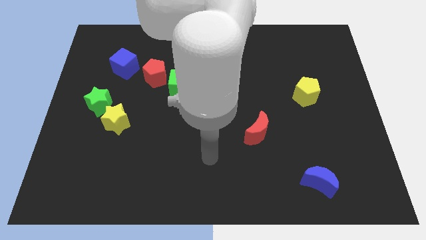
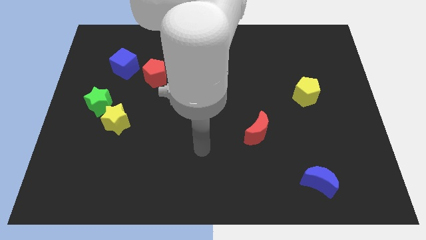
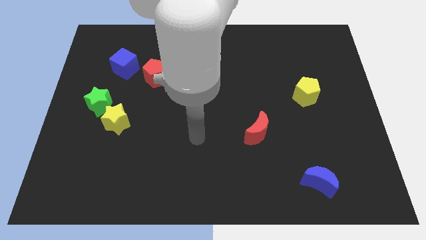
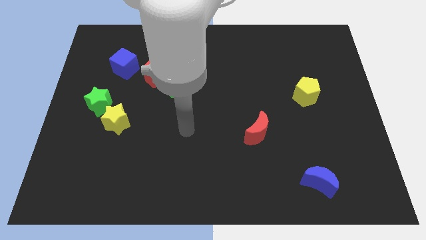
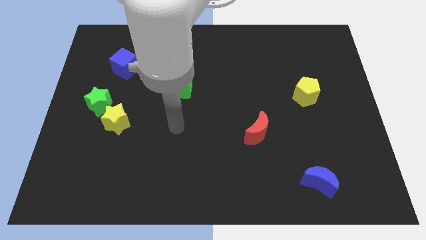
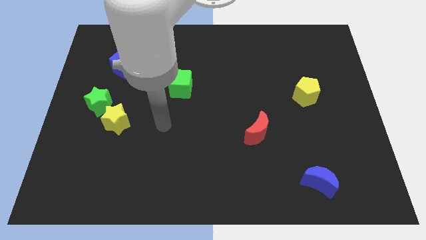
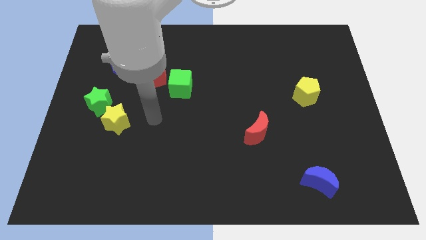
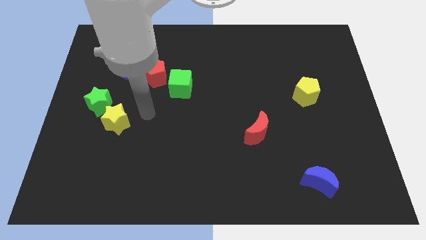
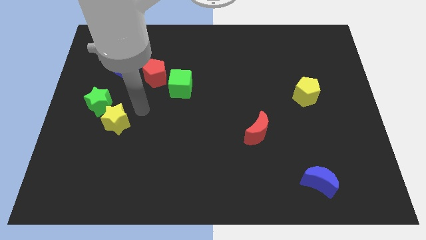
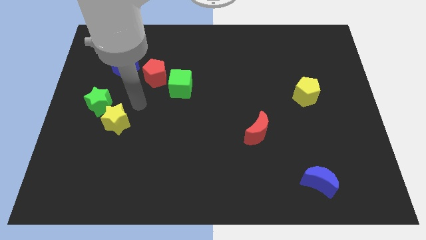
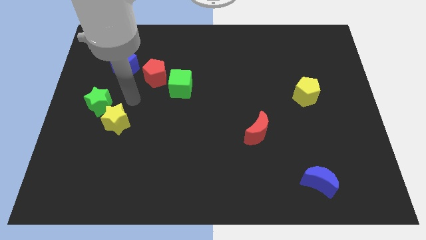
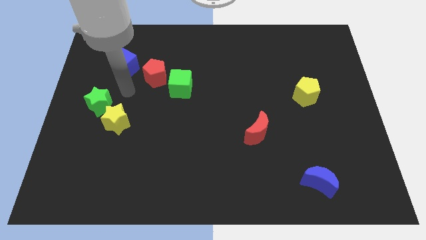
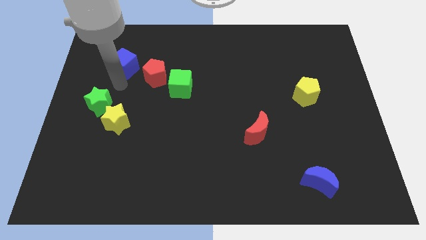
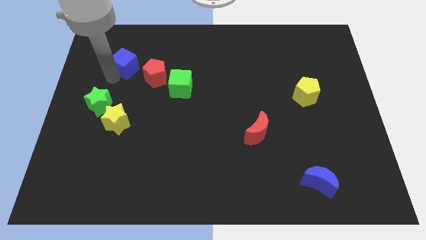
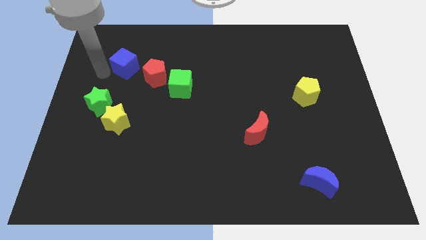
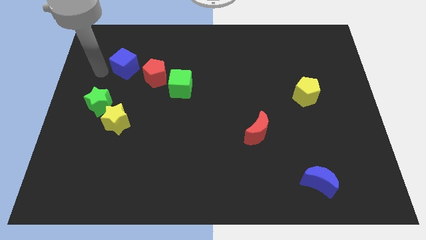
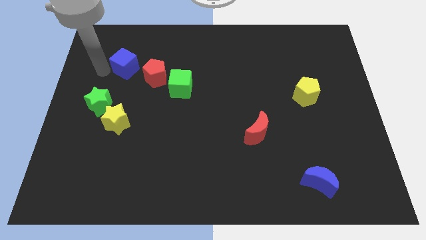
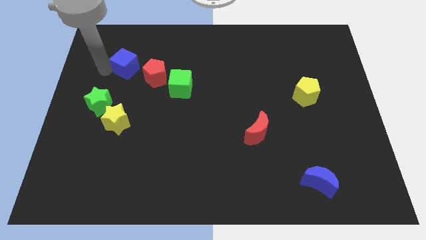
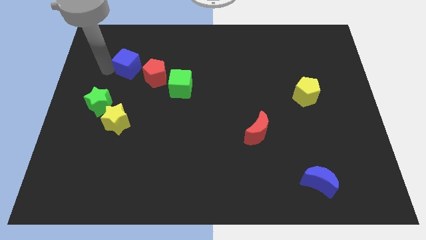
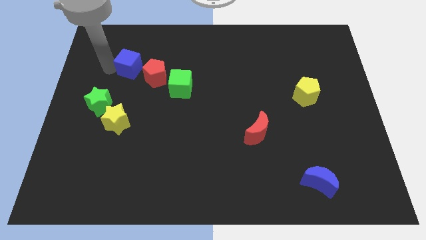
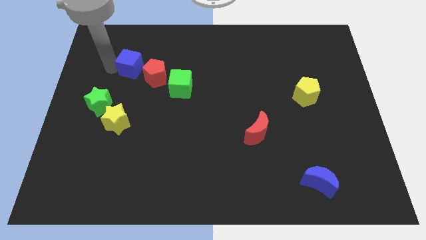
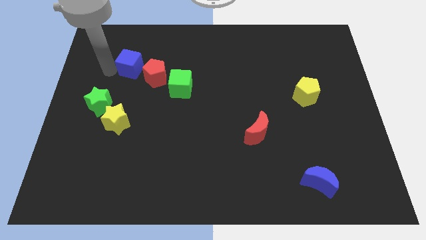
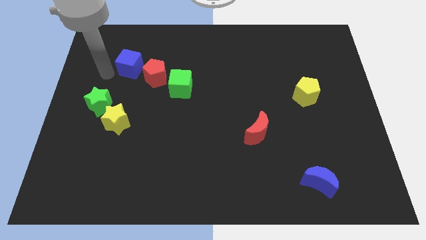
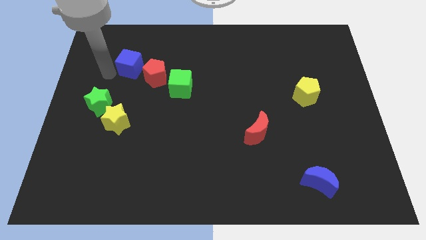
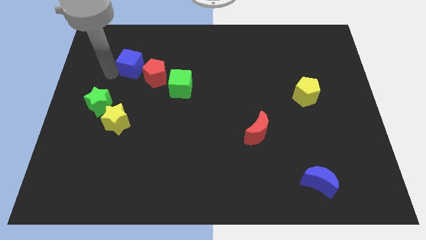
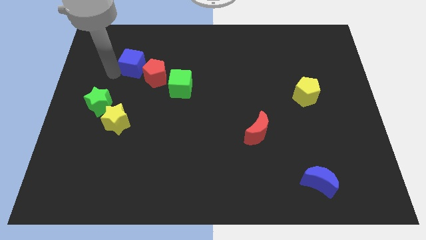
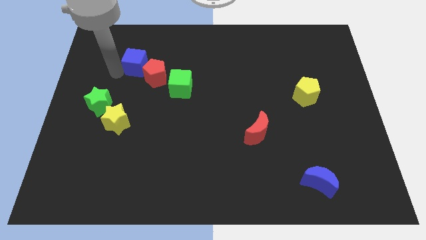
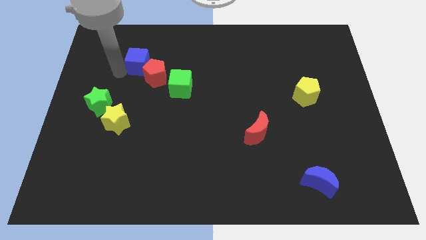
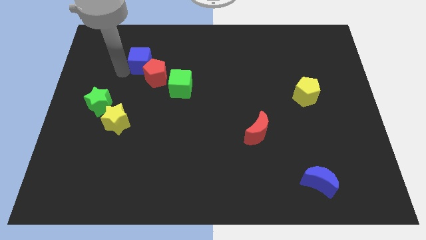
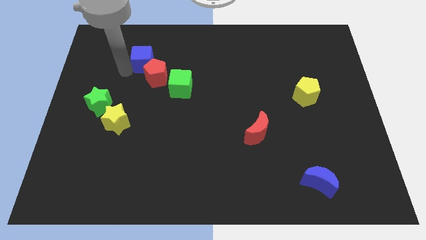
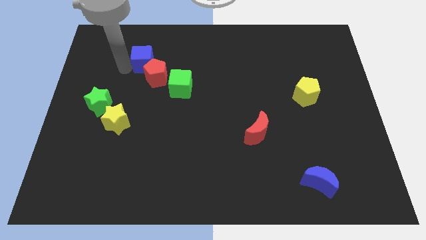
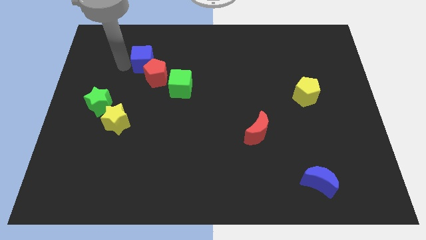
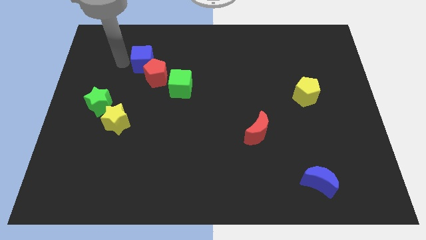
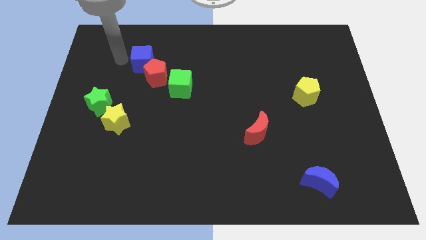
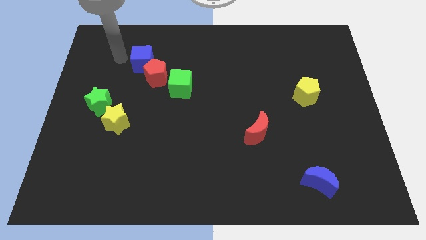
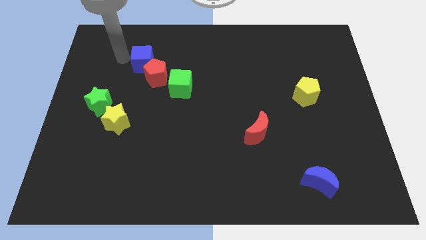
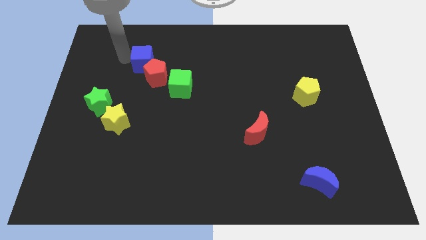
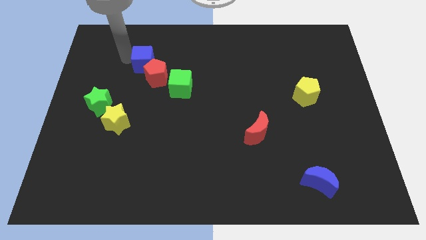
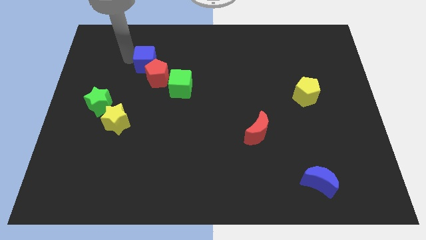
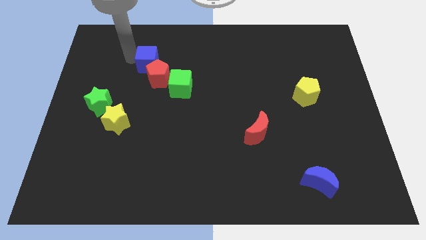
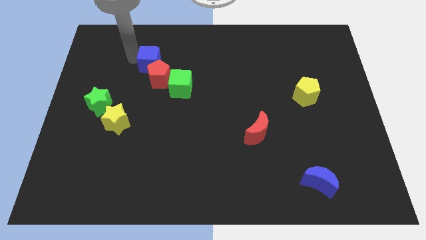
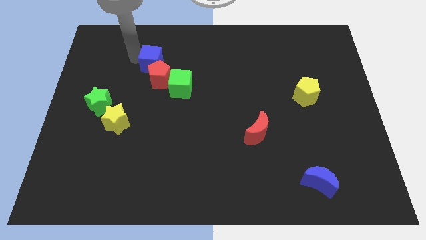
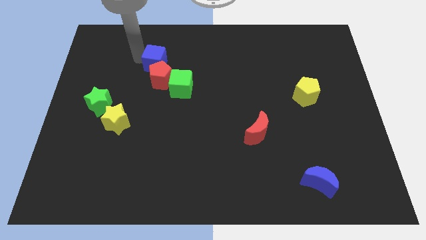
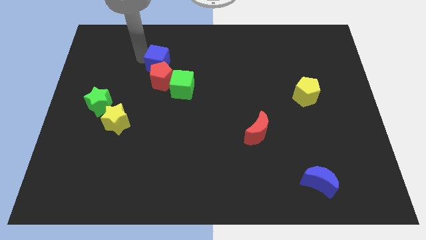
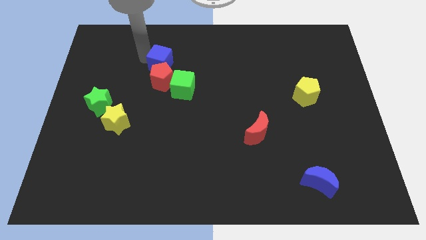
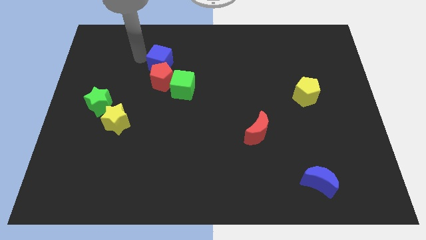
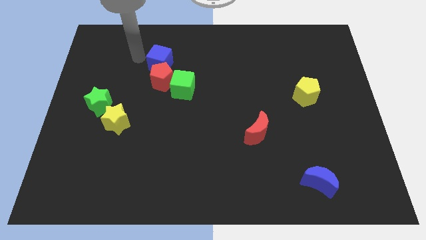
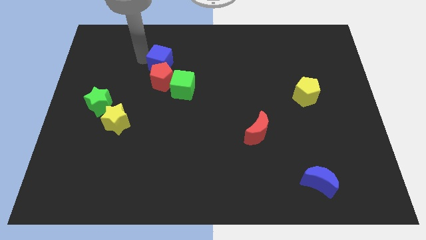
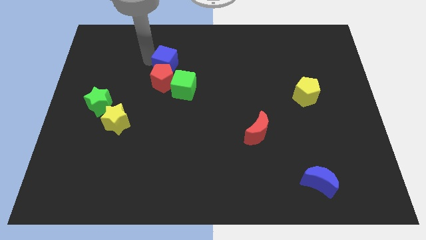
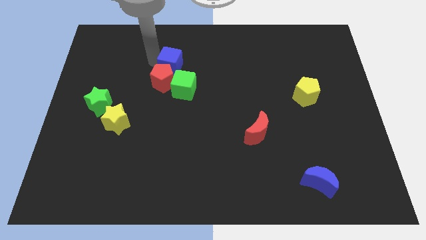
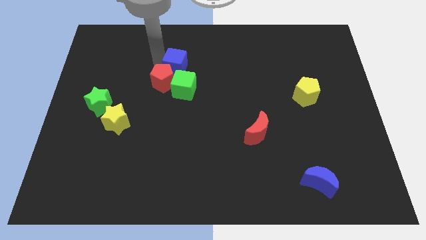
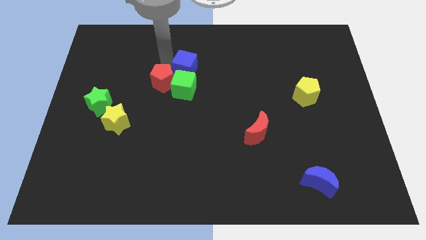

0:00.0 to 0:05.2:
put the blue cube to the top right of the green cube

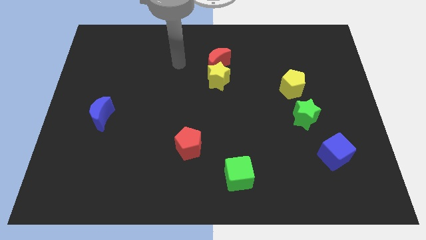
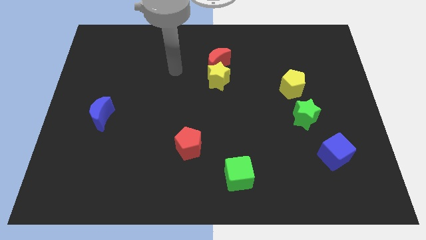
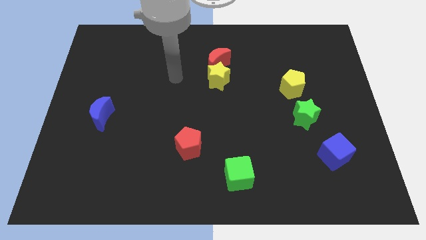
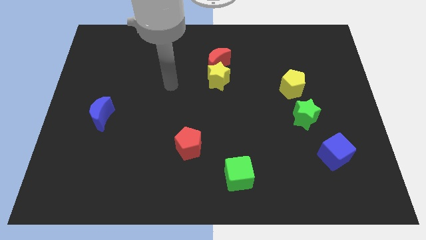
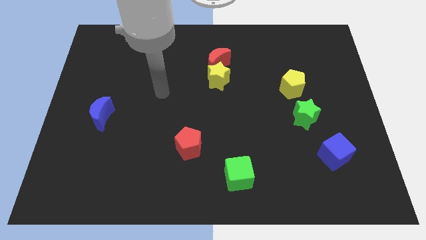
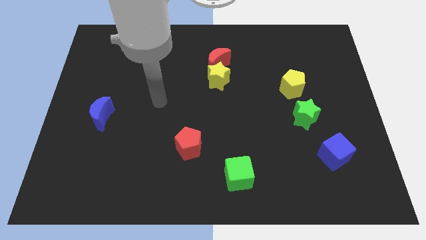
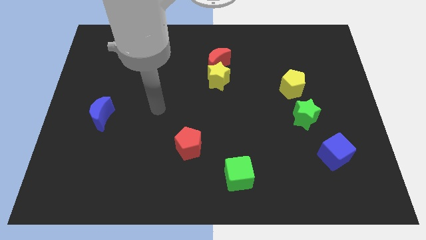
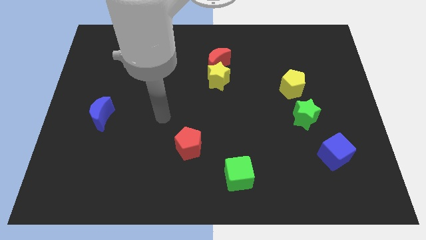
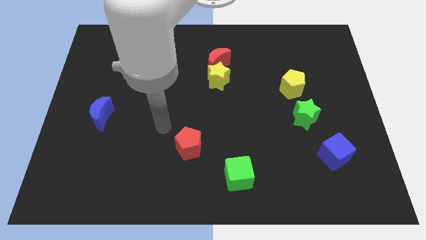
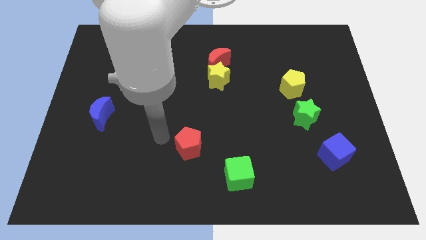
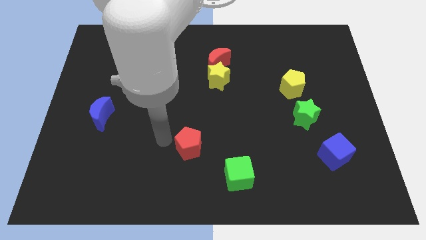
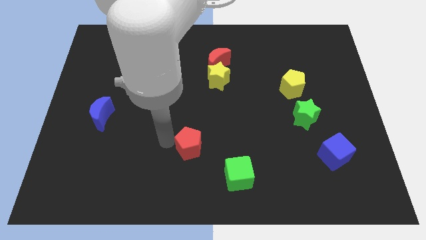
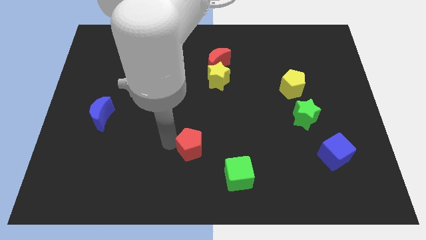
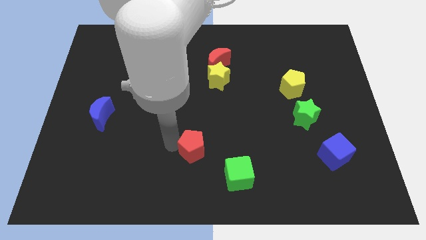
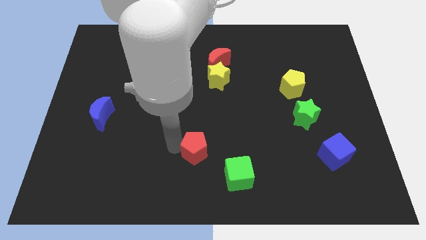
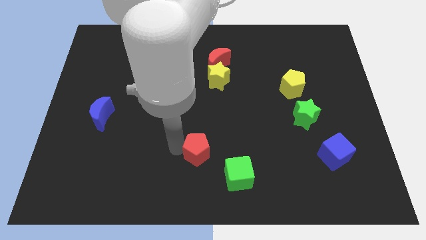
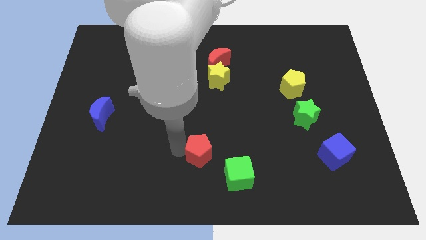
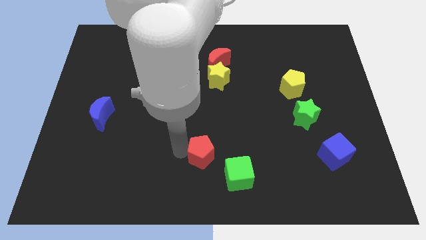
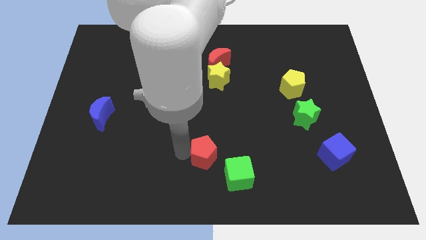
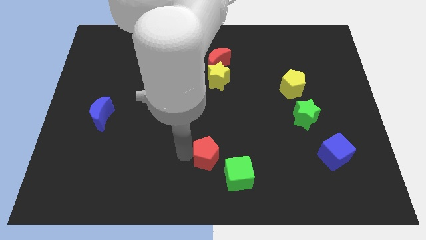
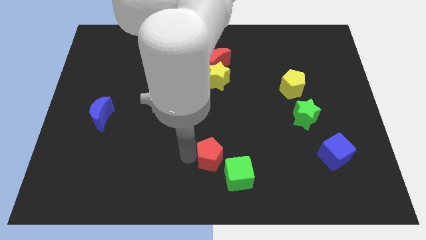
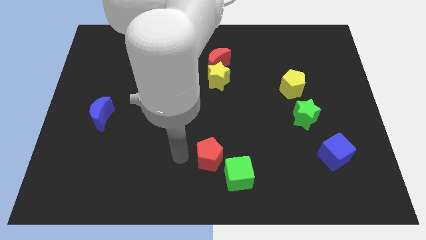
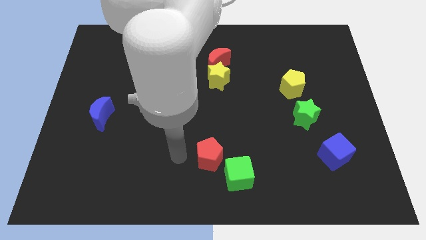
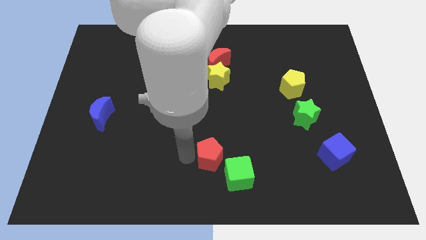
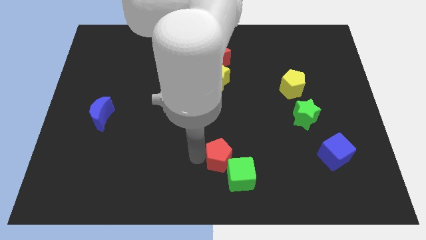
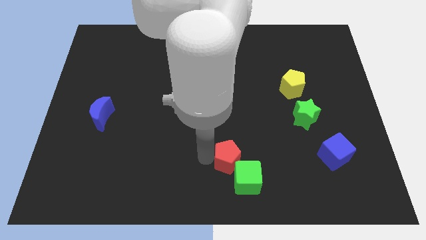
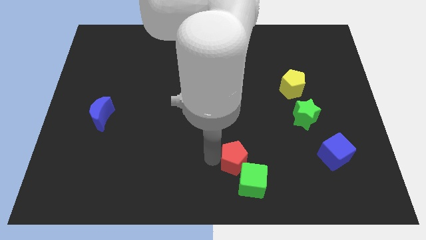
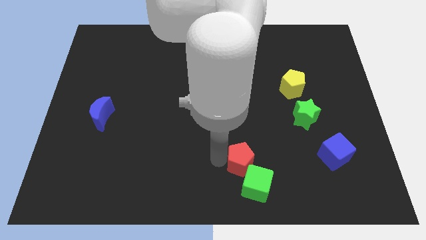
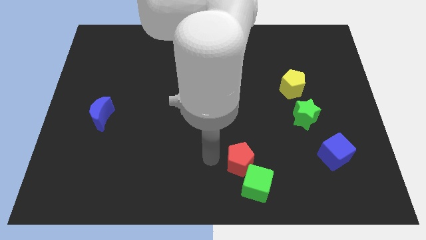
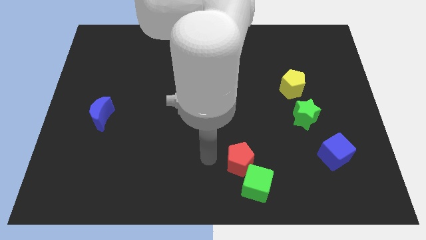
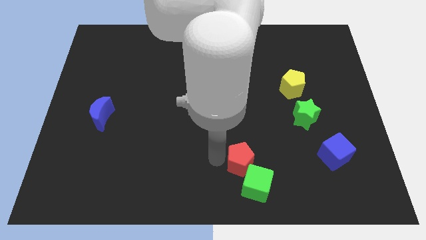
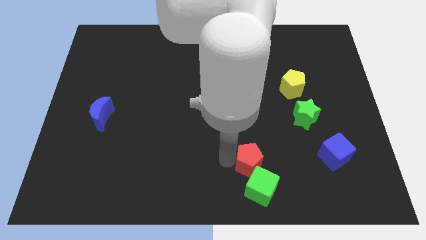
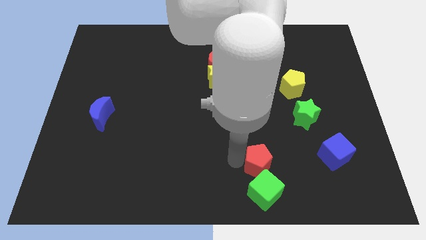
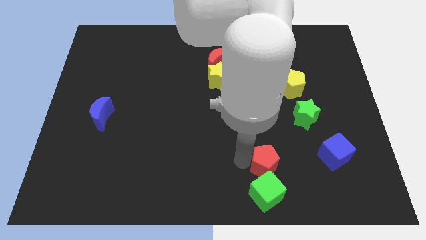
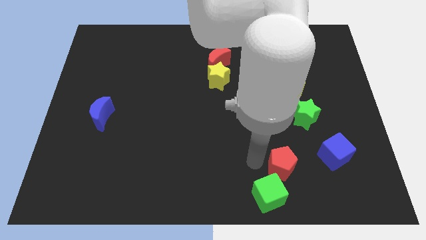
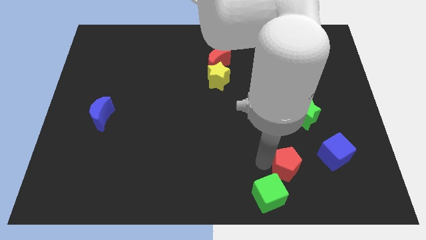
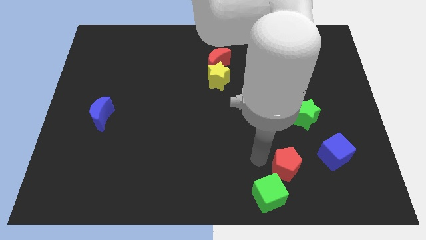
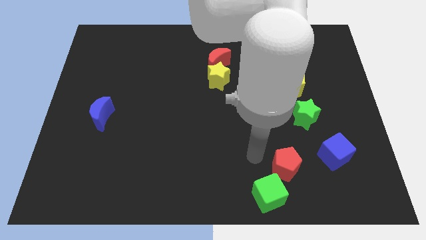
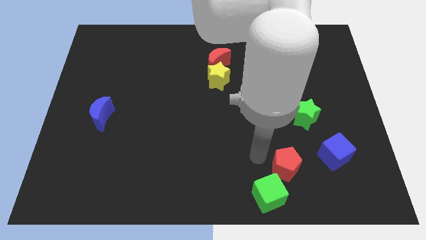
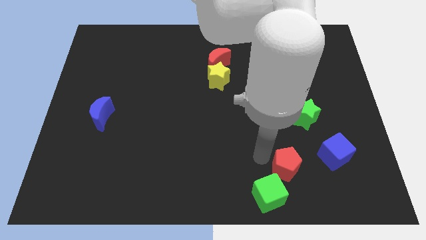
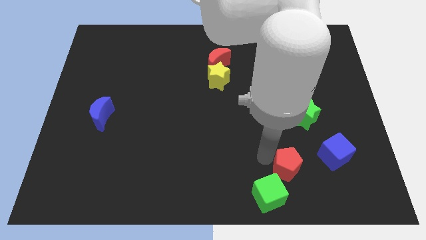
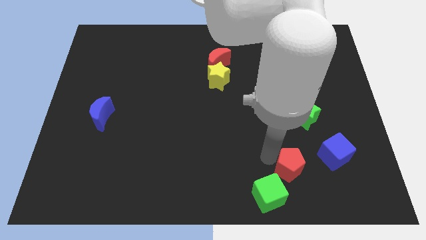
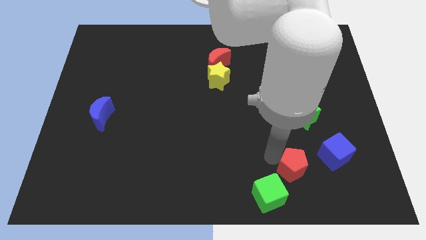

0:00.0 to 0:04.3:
slide the red pentagon to the bottom left side of the blue cube
